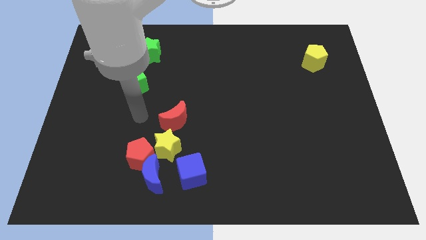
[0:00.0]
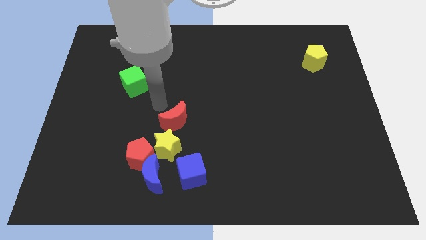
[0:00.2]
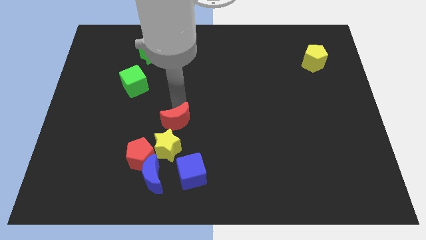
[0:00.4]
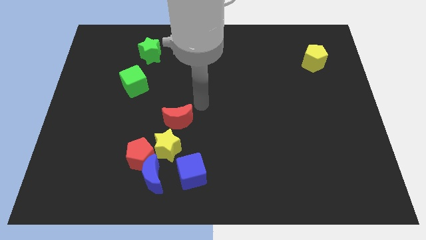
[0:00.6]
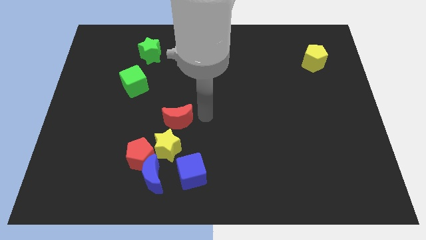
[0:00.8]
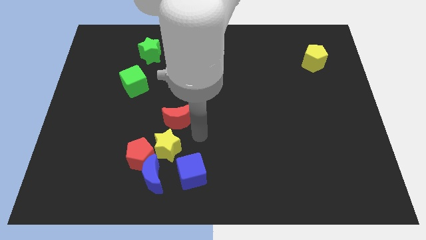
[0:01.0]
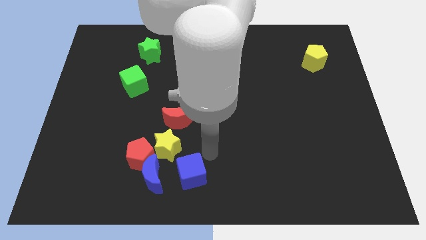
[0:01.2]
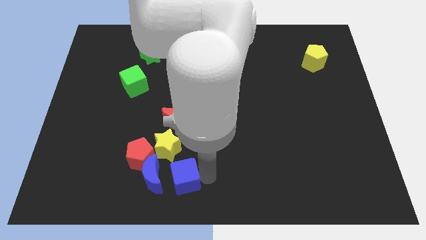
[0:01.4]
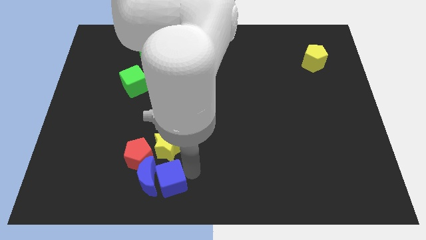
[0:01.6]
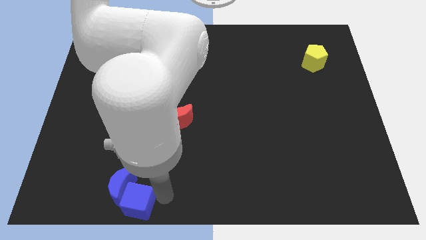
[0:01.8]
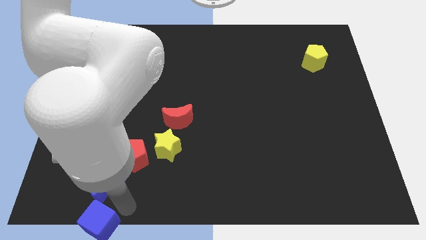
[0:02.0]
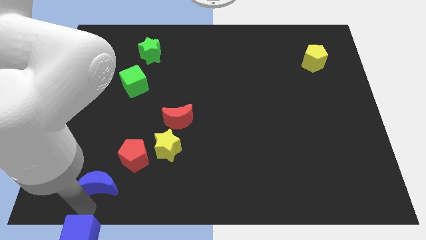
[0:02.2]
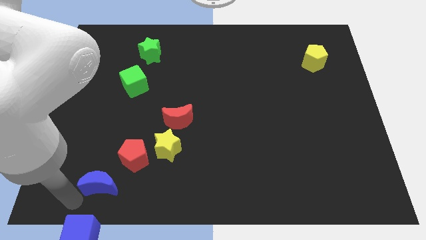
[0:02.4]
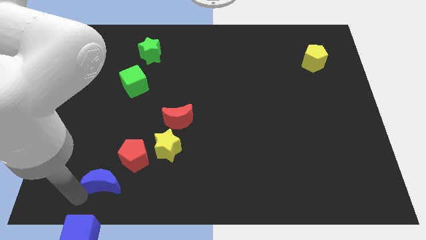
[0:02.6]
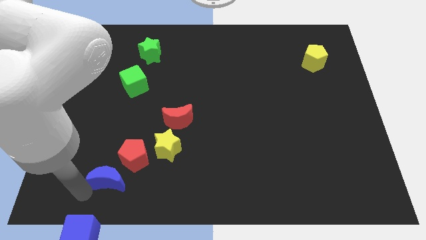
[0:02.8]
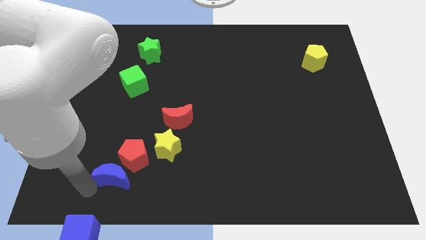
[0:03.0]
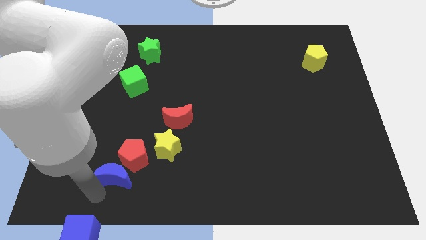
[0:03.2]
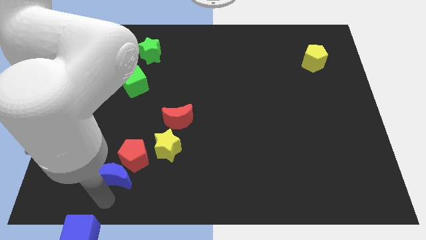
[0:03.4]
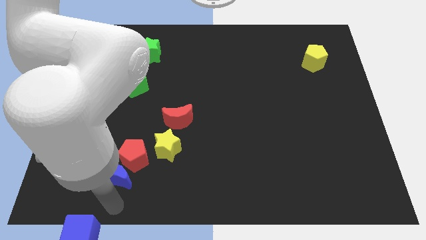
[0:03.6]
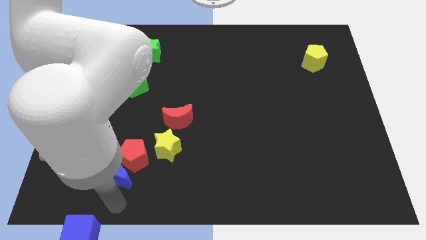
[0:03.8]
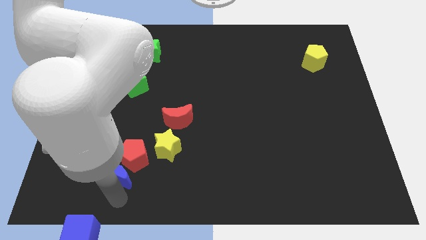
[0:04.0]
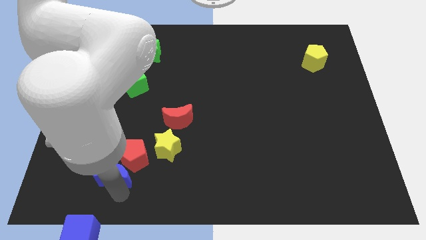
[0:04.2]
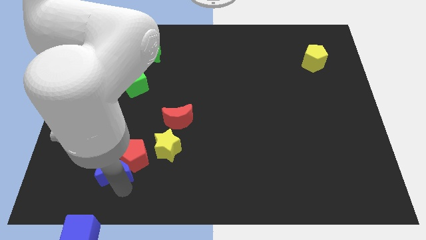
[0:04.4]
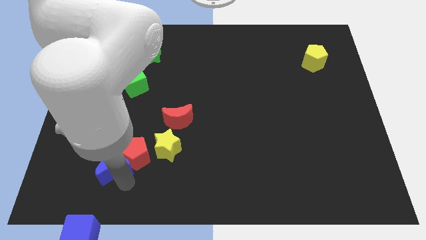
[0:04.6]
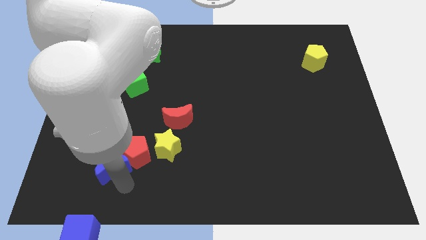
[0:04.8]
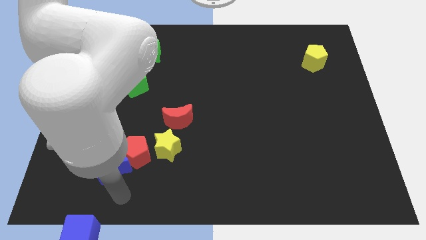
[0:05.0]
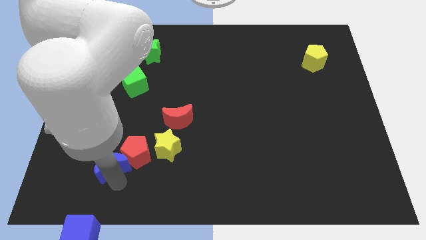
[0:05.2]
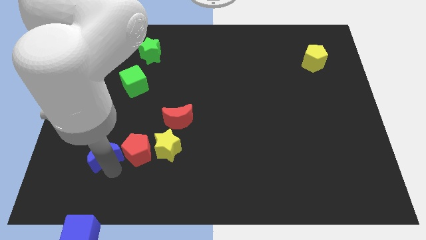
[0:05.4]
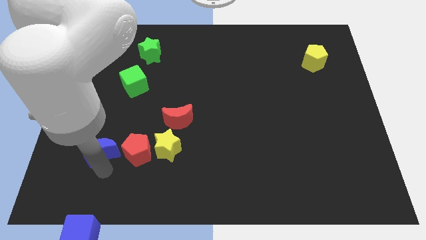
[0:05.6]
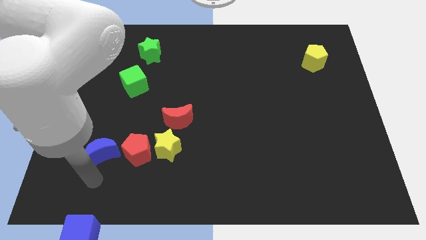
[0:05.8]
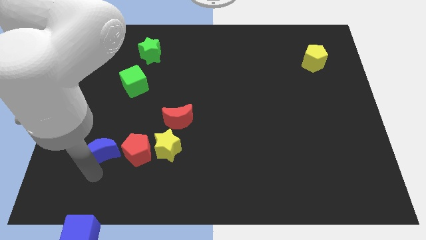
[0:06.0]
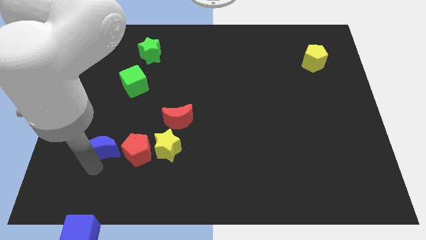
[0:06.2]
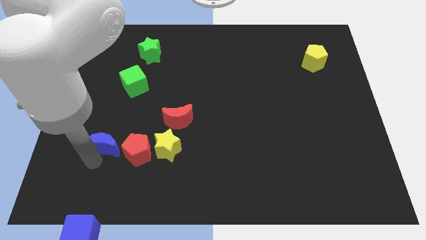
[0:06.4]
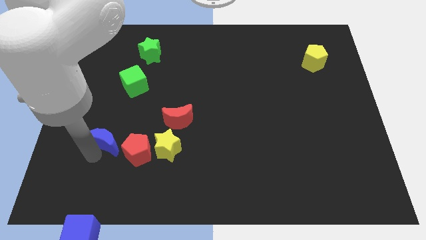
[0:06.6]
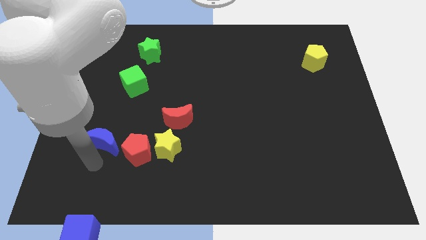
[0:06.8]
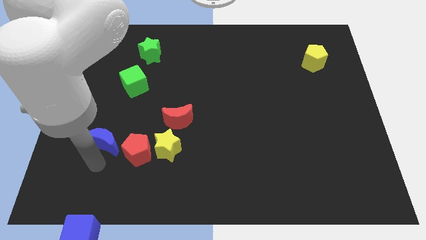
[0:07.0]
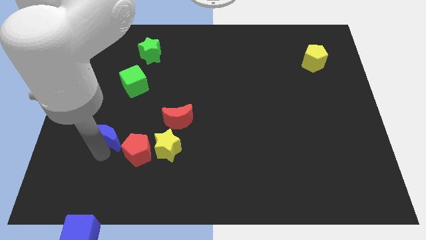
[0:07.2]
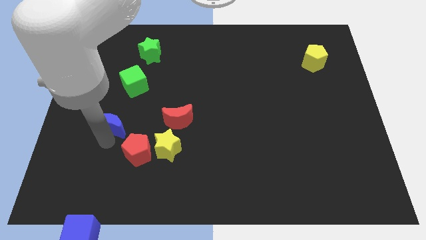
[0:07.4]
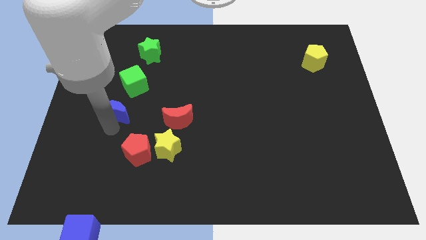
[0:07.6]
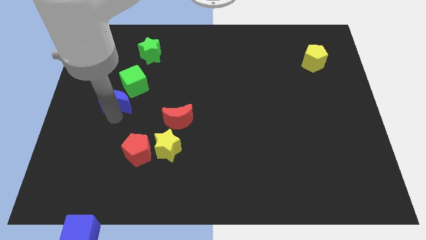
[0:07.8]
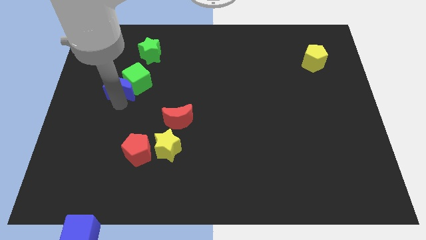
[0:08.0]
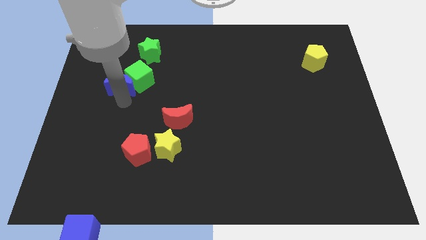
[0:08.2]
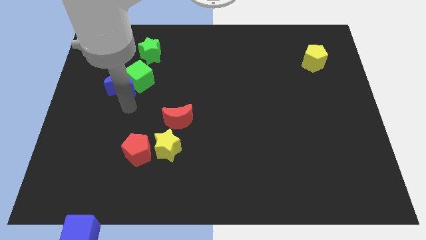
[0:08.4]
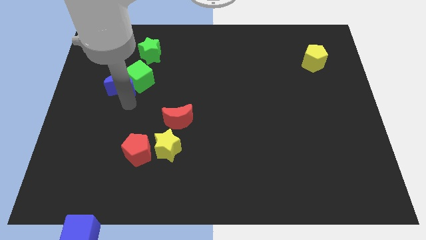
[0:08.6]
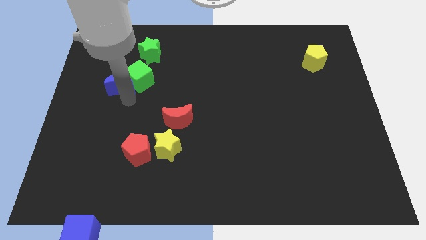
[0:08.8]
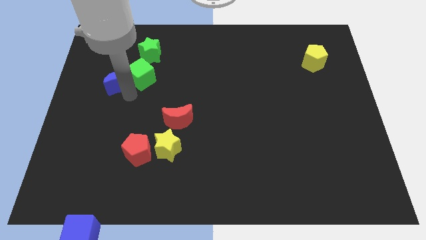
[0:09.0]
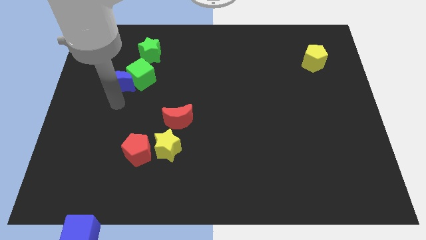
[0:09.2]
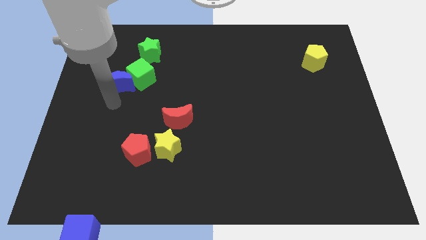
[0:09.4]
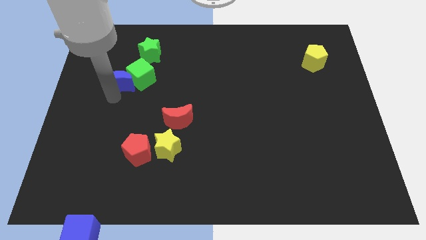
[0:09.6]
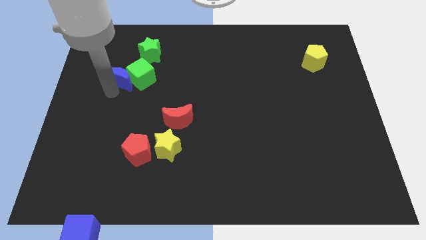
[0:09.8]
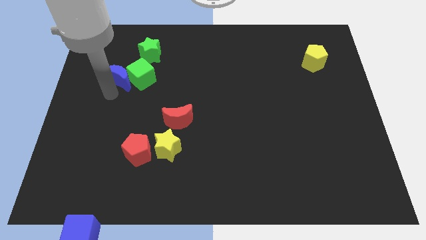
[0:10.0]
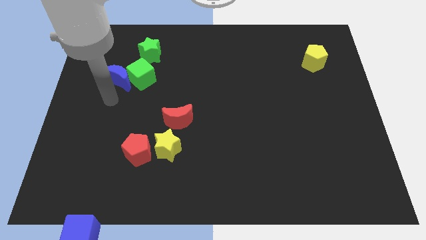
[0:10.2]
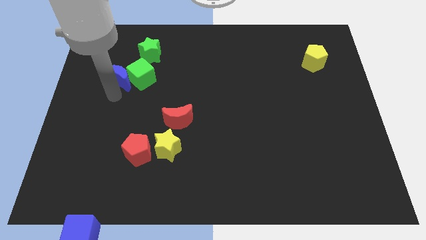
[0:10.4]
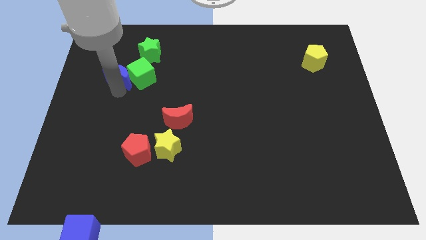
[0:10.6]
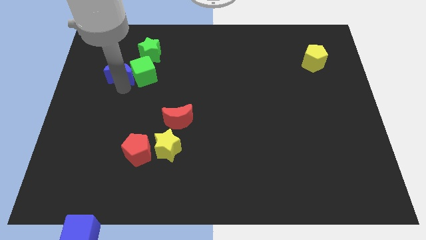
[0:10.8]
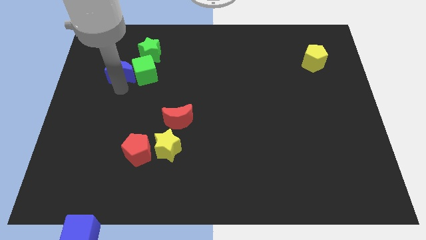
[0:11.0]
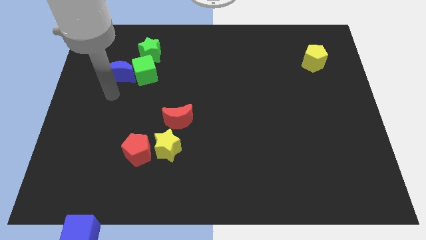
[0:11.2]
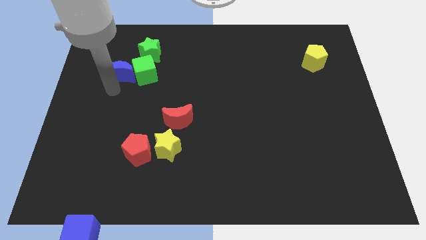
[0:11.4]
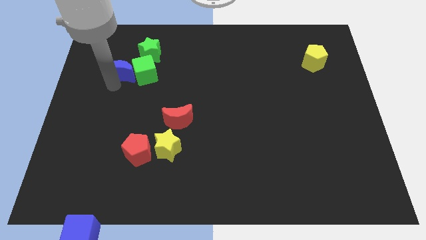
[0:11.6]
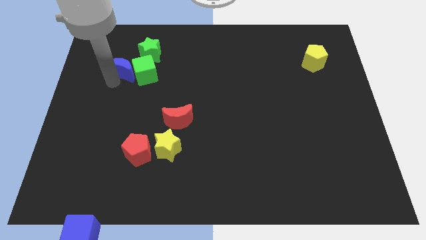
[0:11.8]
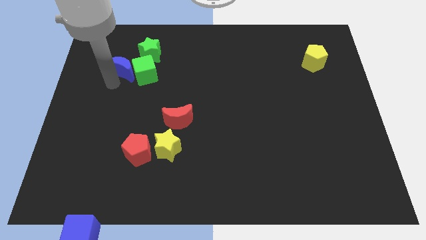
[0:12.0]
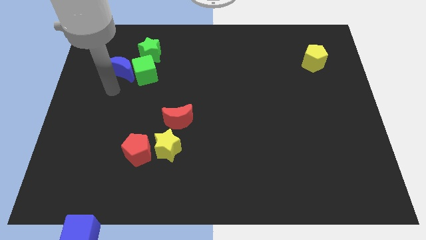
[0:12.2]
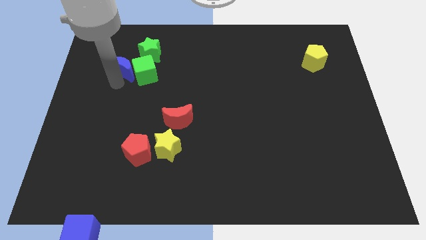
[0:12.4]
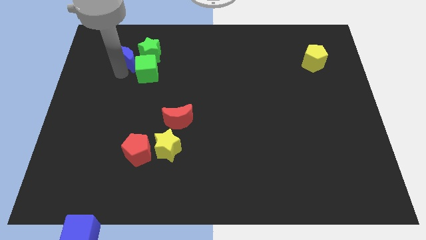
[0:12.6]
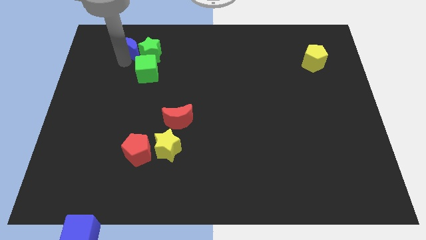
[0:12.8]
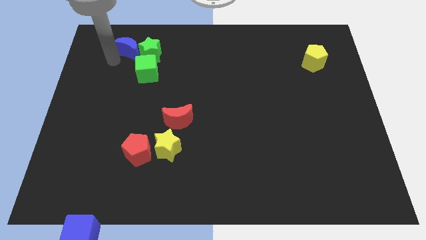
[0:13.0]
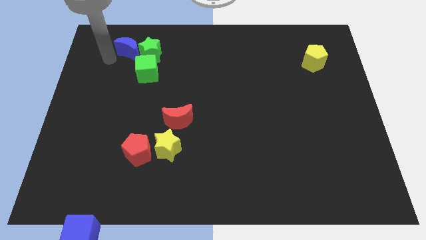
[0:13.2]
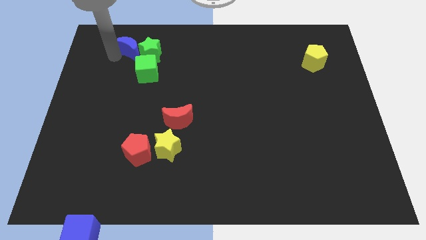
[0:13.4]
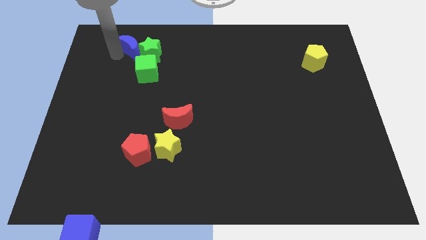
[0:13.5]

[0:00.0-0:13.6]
move the blue moon to the top side of the green cube
